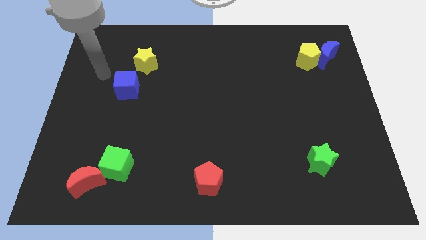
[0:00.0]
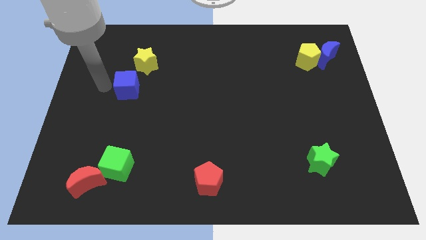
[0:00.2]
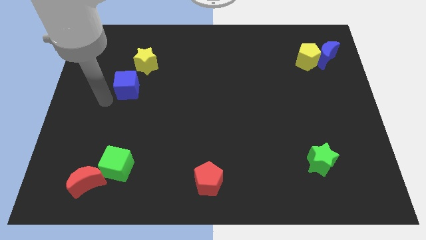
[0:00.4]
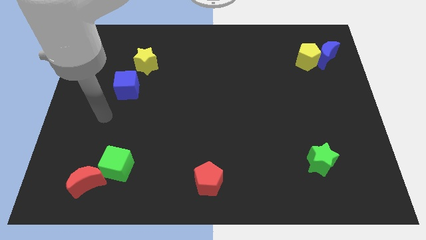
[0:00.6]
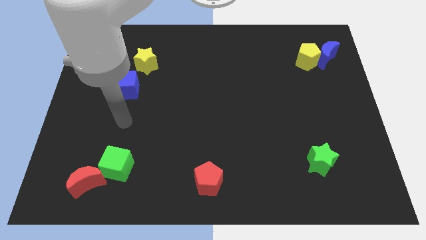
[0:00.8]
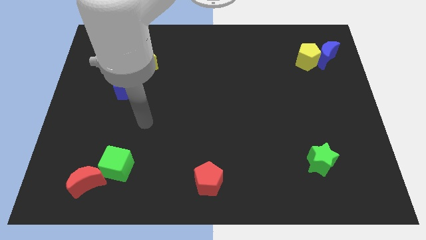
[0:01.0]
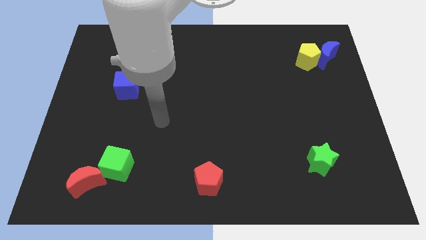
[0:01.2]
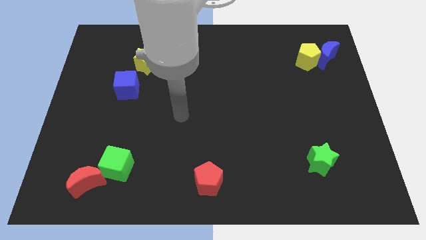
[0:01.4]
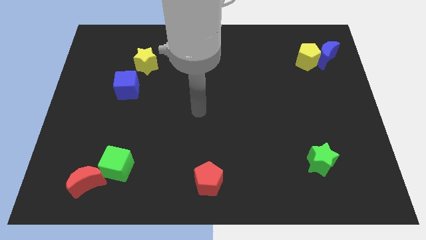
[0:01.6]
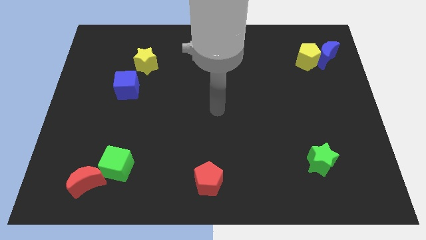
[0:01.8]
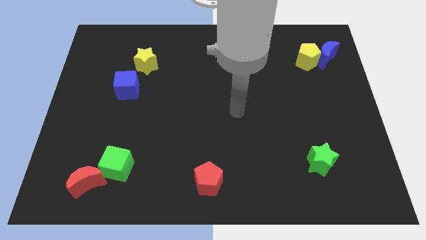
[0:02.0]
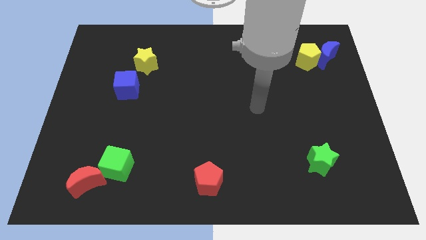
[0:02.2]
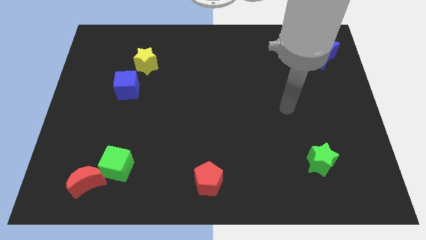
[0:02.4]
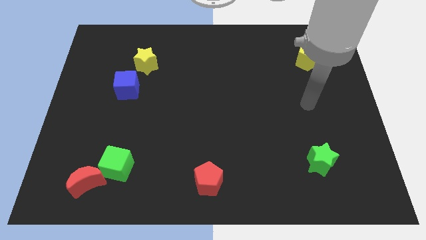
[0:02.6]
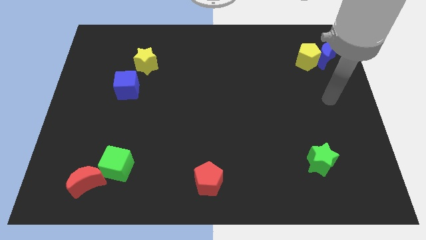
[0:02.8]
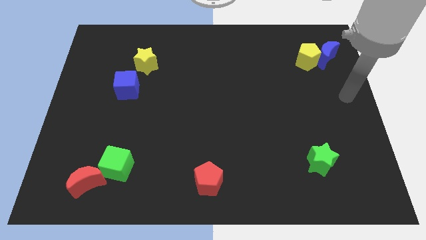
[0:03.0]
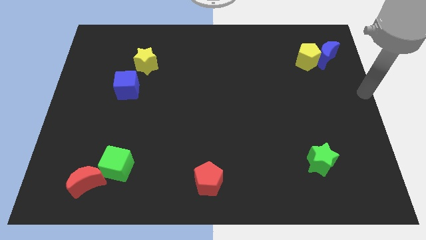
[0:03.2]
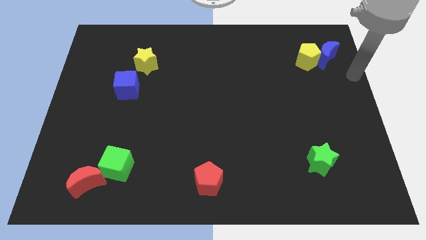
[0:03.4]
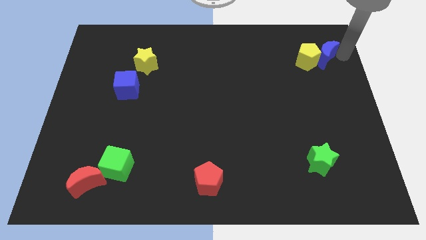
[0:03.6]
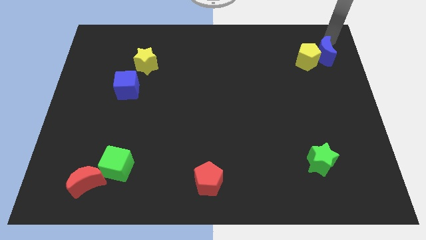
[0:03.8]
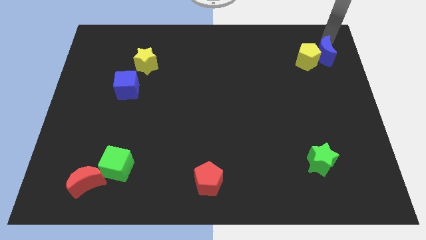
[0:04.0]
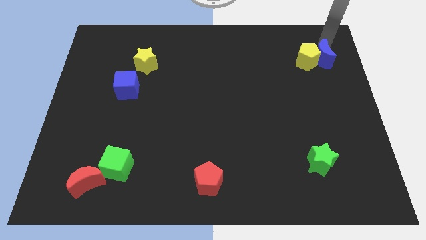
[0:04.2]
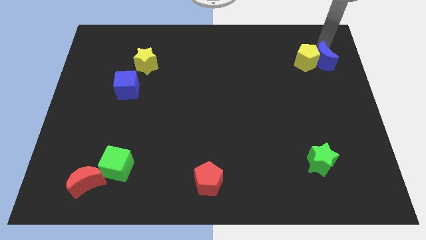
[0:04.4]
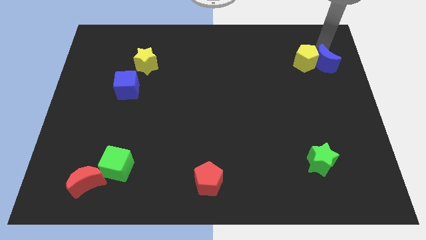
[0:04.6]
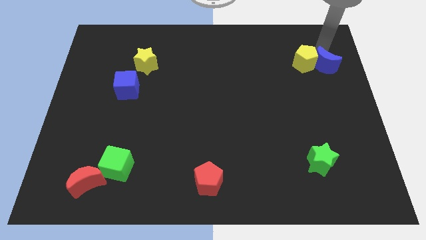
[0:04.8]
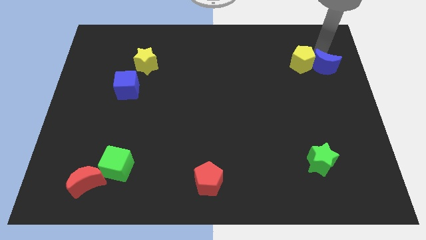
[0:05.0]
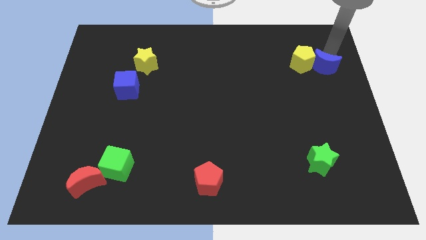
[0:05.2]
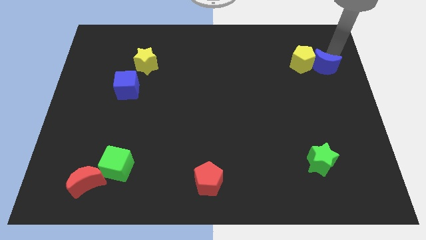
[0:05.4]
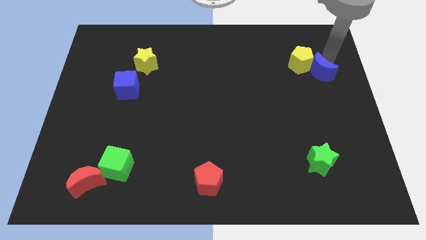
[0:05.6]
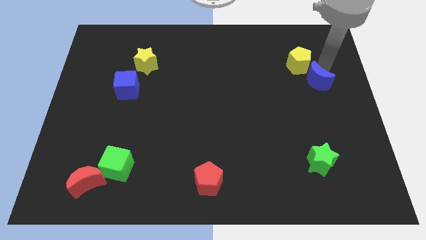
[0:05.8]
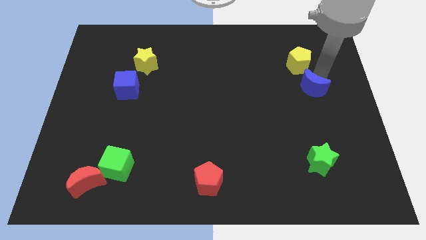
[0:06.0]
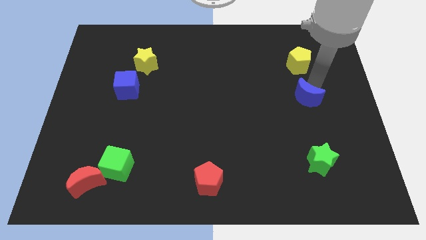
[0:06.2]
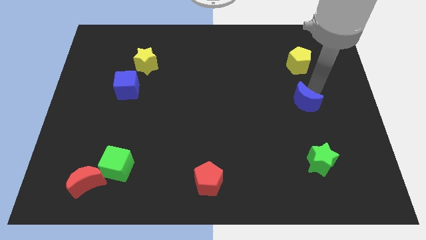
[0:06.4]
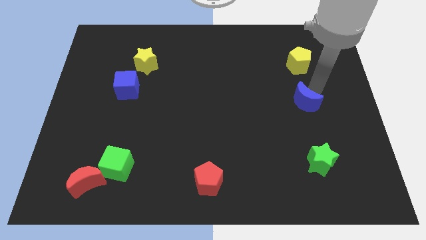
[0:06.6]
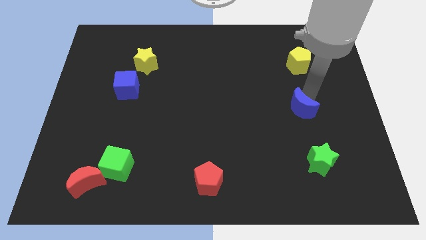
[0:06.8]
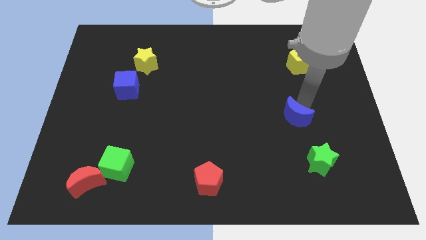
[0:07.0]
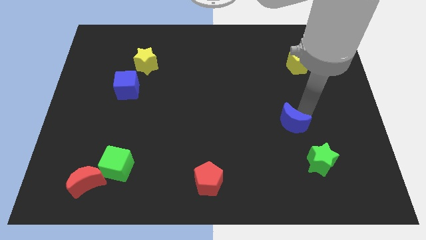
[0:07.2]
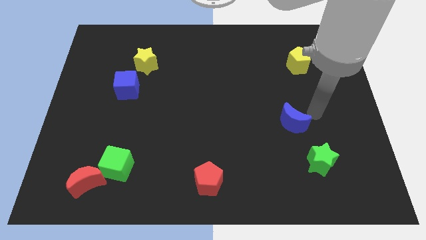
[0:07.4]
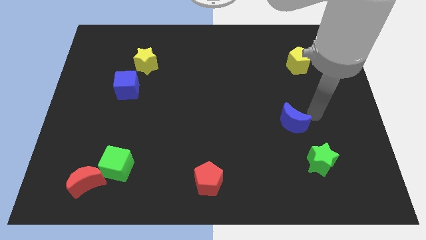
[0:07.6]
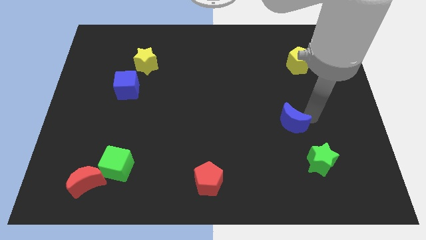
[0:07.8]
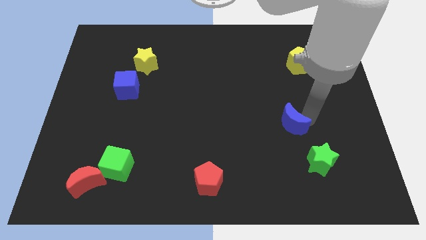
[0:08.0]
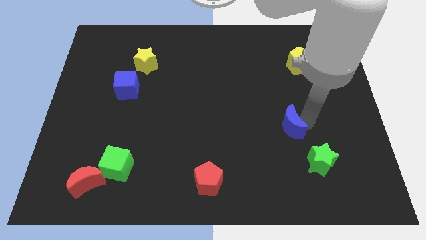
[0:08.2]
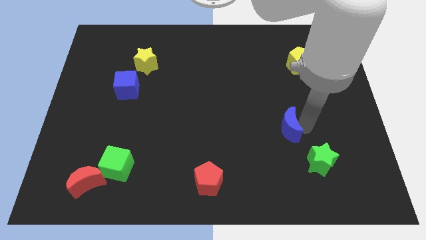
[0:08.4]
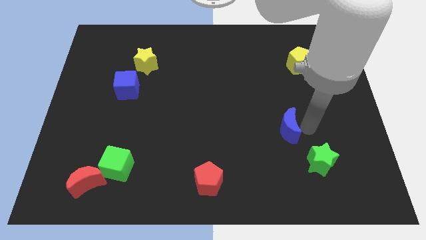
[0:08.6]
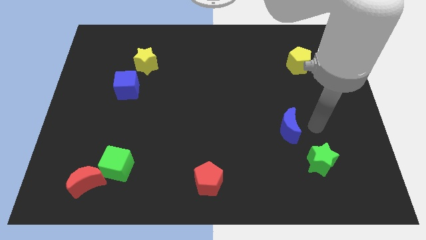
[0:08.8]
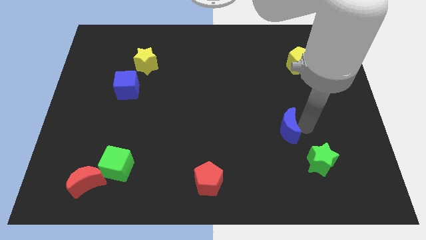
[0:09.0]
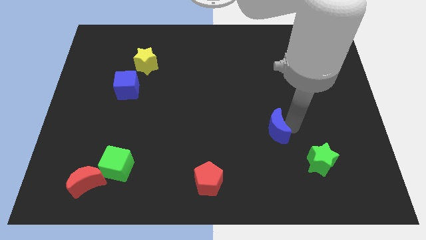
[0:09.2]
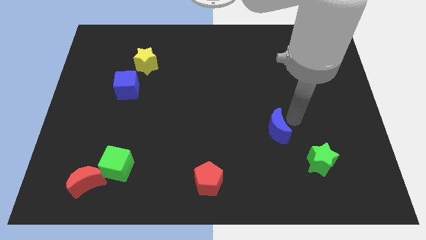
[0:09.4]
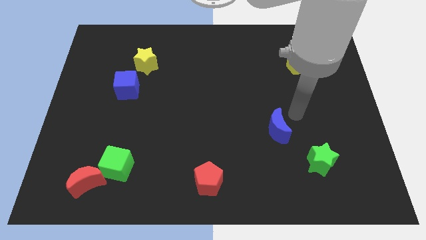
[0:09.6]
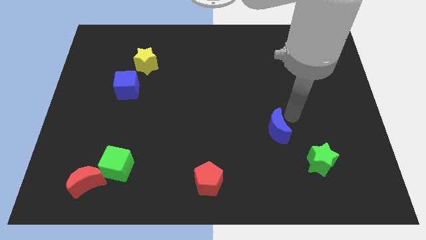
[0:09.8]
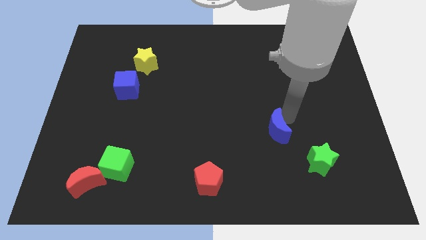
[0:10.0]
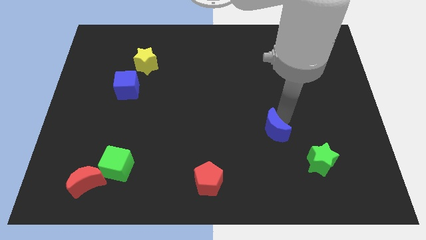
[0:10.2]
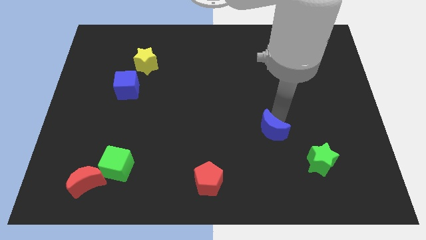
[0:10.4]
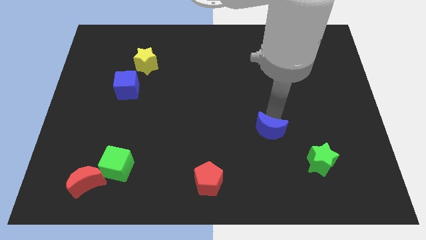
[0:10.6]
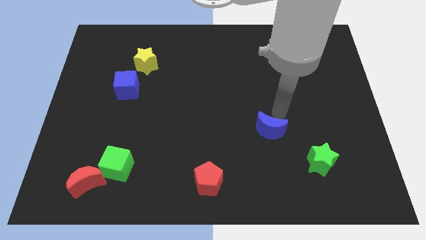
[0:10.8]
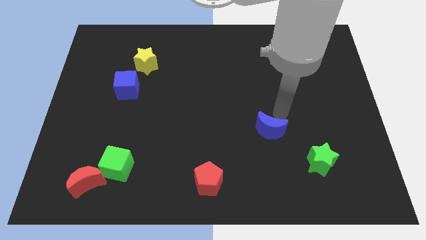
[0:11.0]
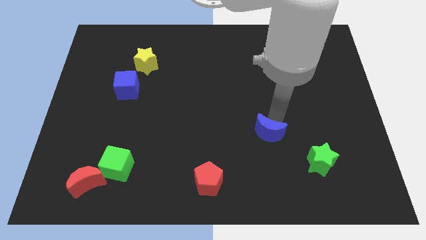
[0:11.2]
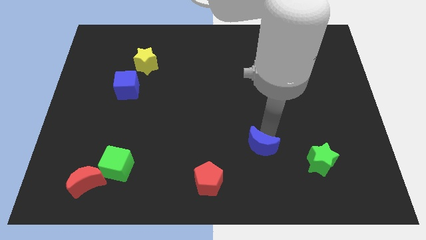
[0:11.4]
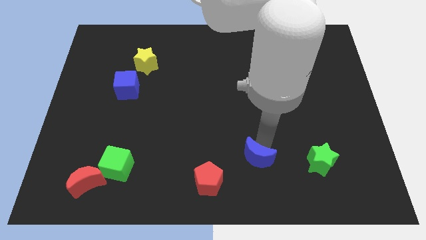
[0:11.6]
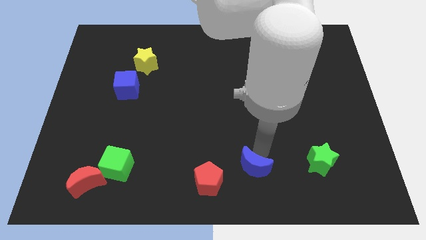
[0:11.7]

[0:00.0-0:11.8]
slide the blue moon to the bottom side
